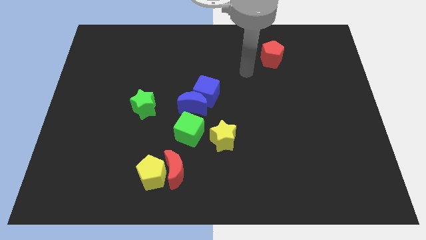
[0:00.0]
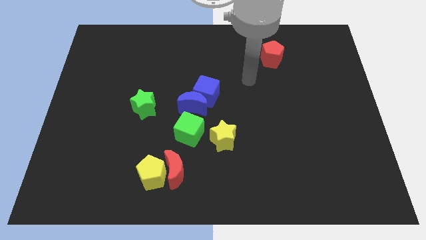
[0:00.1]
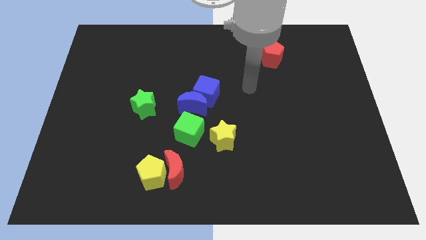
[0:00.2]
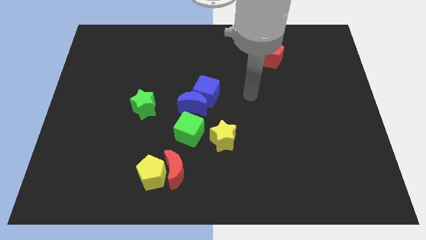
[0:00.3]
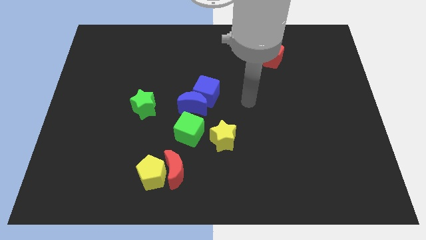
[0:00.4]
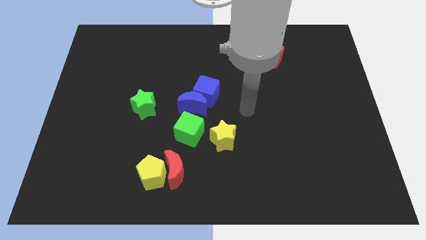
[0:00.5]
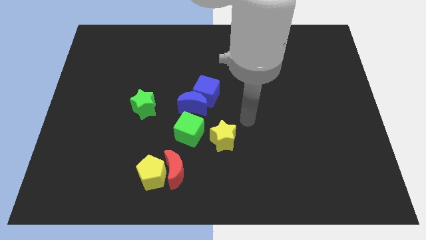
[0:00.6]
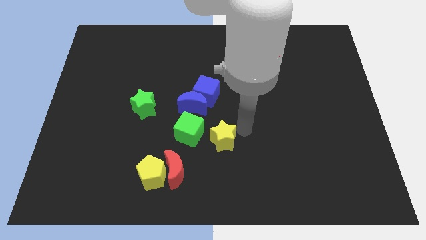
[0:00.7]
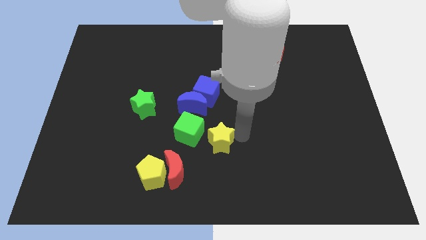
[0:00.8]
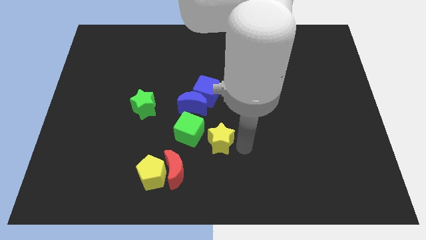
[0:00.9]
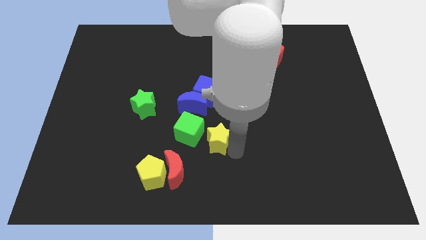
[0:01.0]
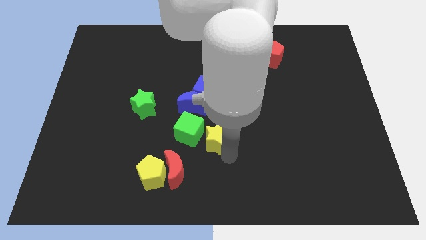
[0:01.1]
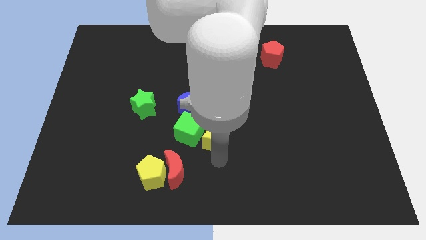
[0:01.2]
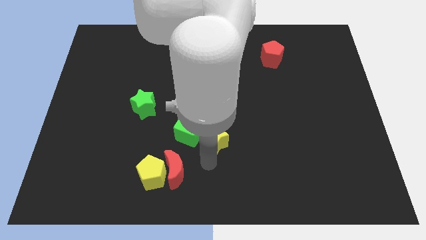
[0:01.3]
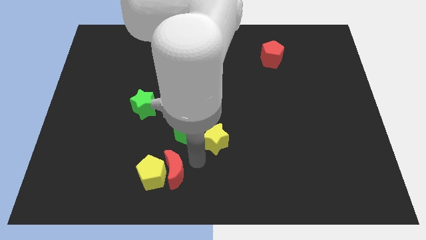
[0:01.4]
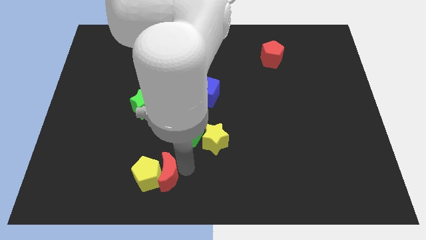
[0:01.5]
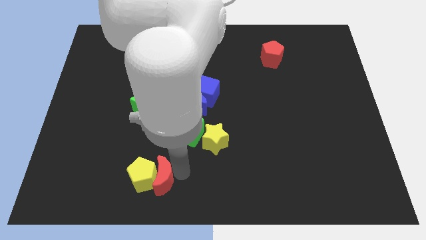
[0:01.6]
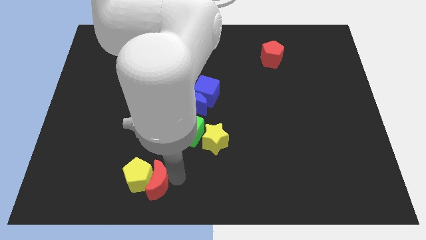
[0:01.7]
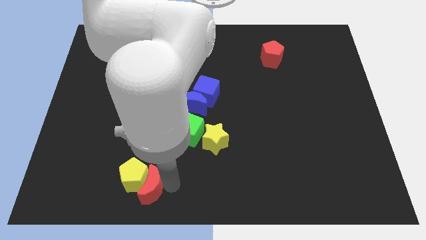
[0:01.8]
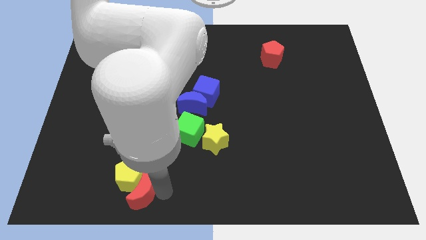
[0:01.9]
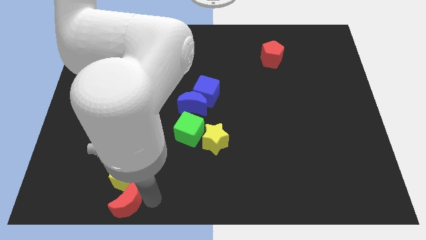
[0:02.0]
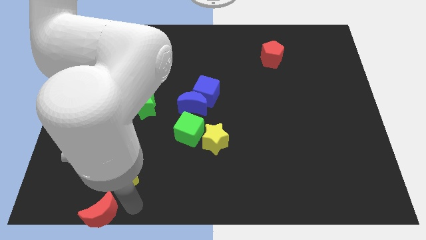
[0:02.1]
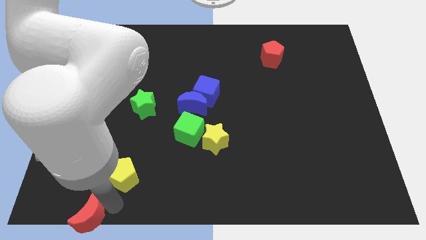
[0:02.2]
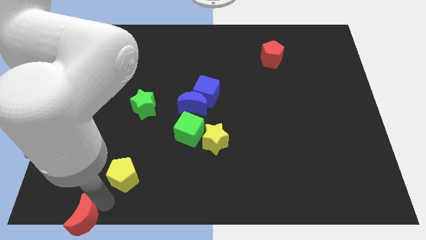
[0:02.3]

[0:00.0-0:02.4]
move the yellow pentagon away from the red moon

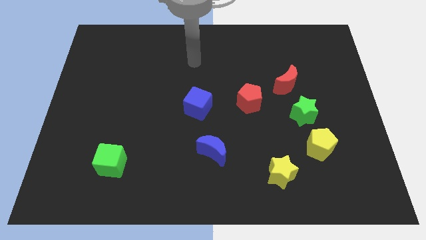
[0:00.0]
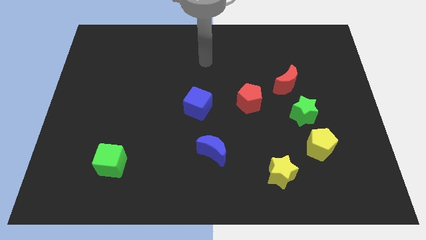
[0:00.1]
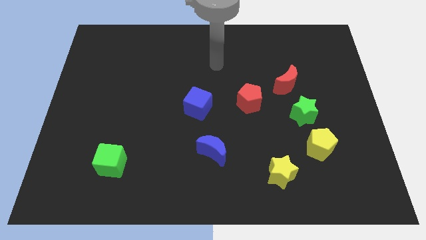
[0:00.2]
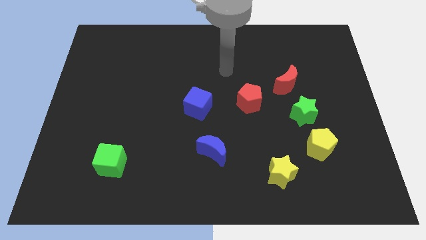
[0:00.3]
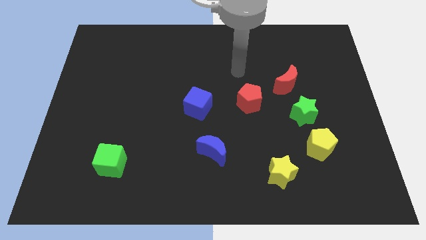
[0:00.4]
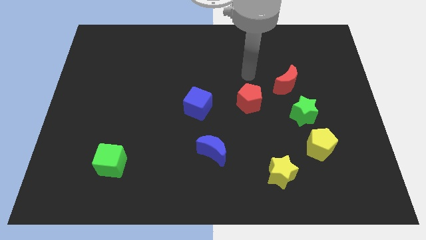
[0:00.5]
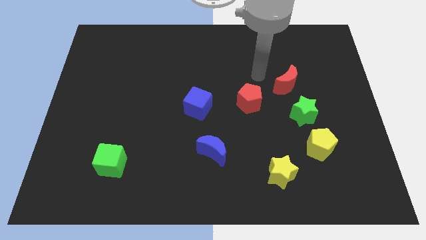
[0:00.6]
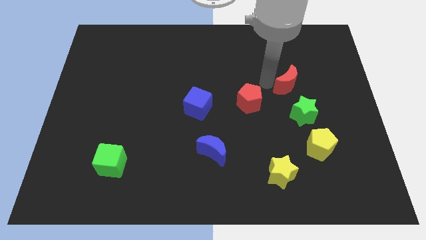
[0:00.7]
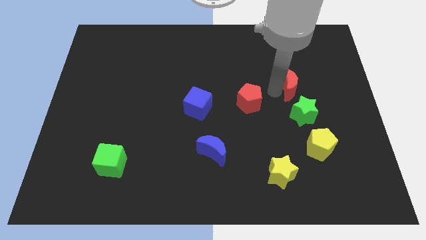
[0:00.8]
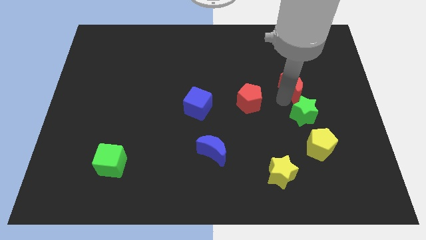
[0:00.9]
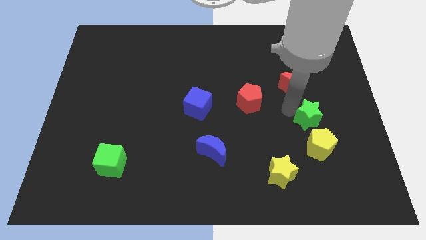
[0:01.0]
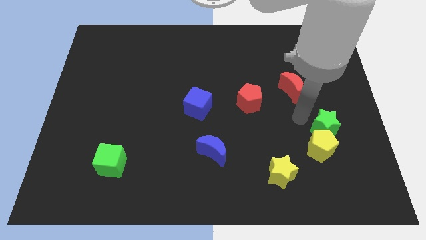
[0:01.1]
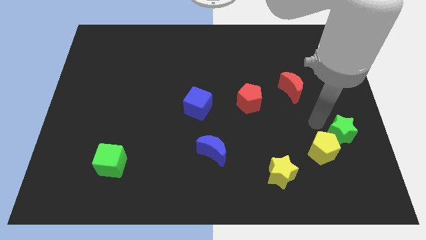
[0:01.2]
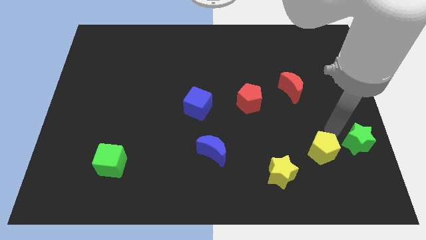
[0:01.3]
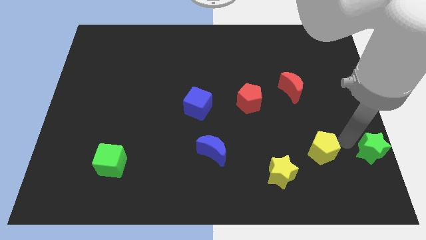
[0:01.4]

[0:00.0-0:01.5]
move the yellow pentagon away from the green star

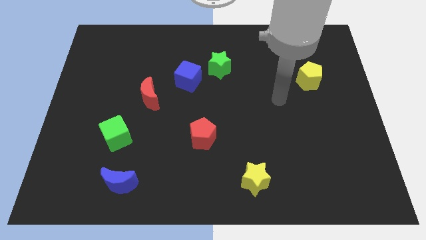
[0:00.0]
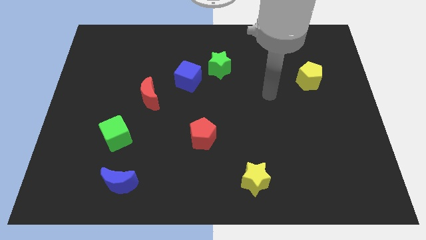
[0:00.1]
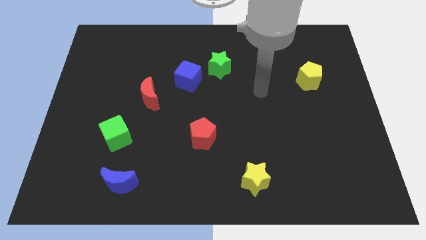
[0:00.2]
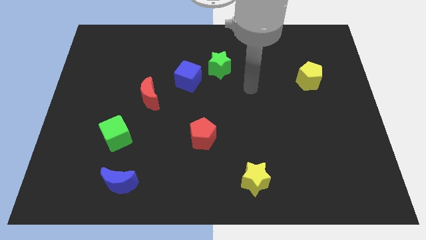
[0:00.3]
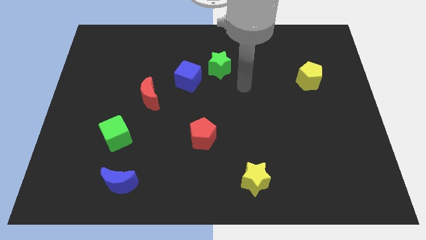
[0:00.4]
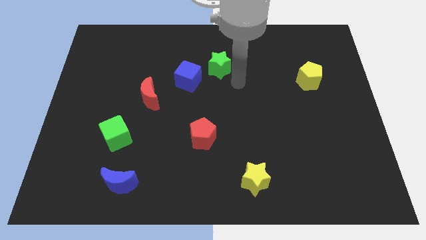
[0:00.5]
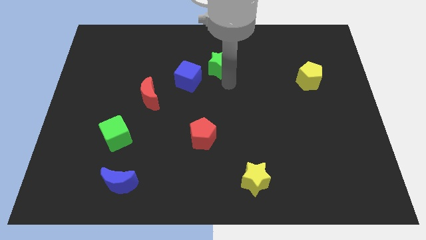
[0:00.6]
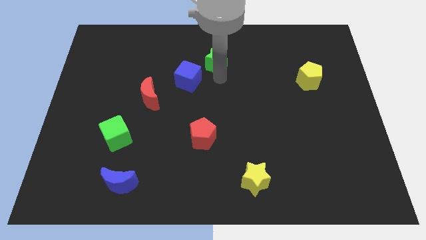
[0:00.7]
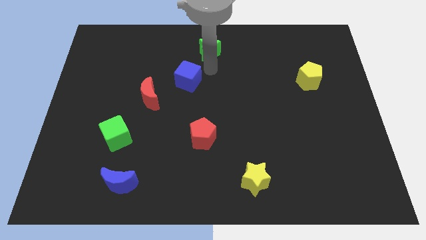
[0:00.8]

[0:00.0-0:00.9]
pull the blue cube apart from the green star

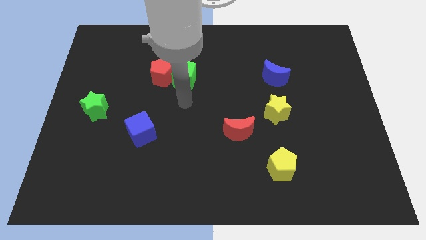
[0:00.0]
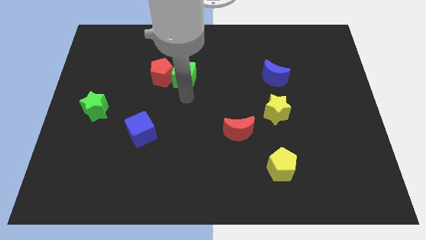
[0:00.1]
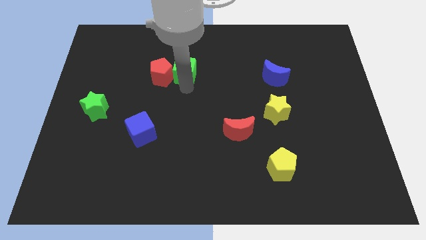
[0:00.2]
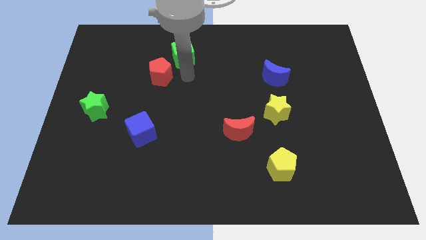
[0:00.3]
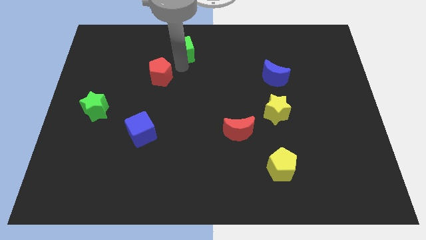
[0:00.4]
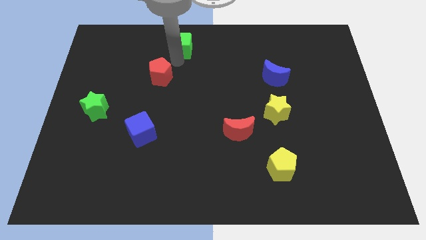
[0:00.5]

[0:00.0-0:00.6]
separate the red pentagon from the green cube

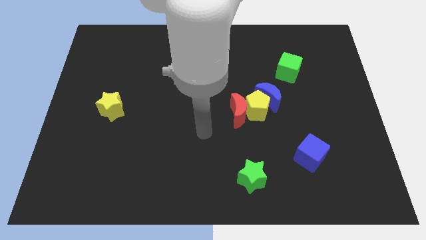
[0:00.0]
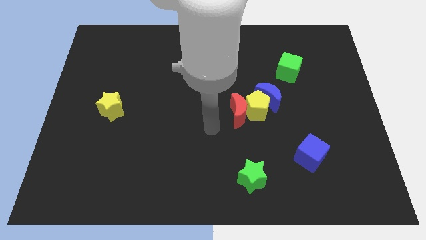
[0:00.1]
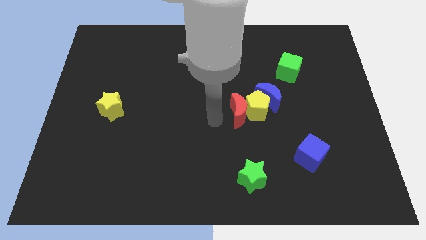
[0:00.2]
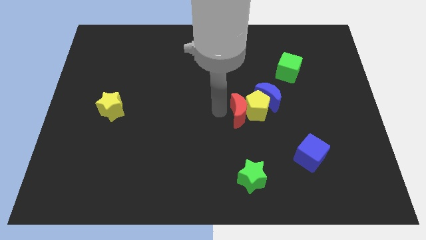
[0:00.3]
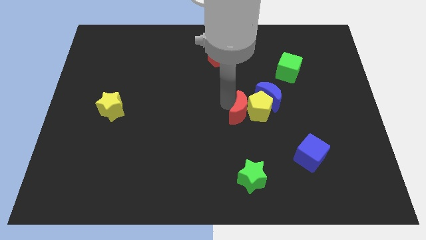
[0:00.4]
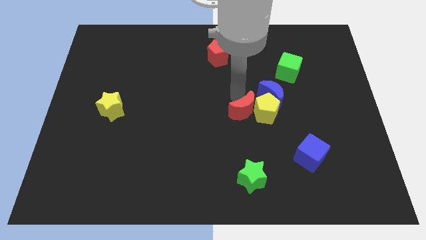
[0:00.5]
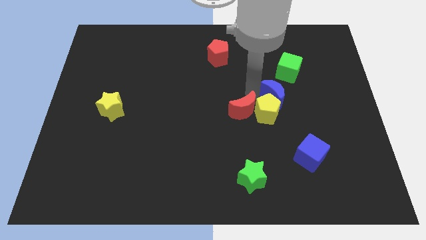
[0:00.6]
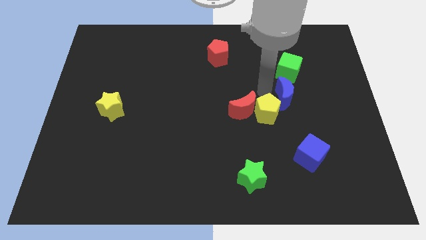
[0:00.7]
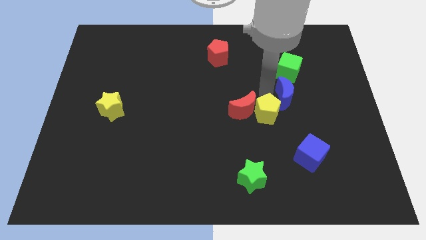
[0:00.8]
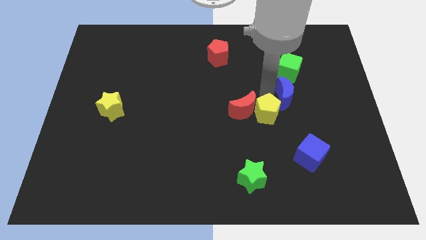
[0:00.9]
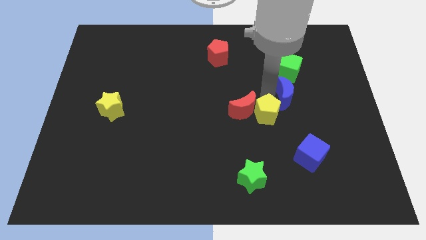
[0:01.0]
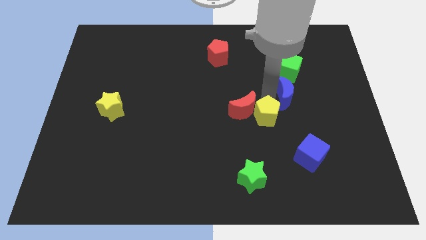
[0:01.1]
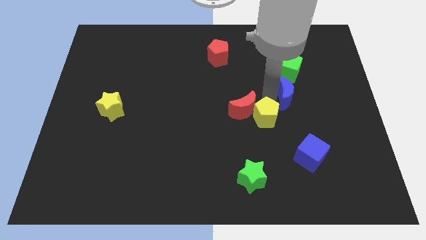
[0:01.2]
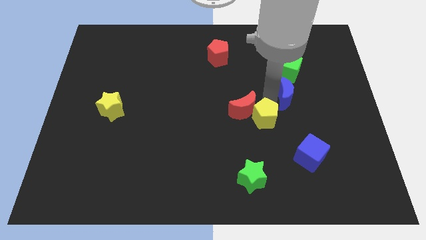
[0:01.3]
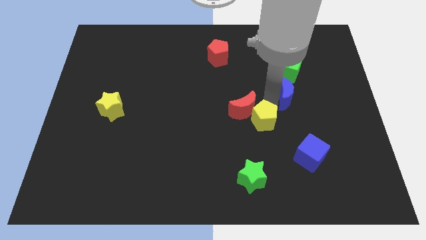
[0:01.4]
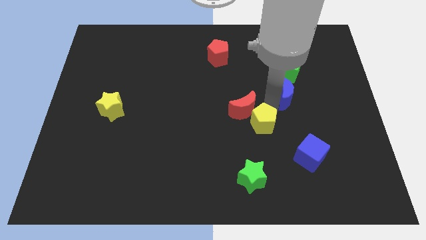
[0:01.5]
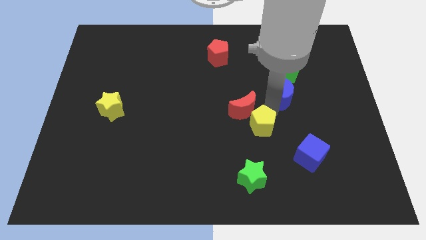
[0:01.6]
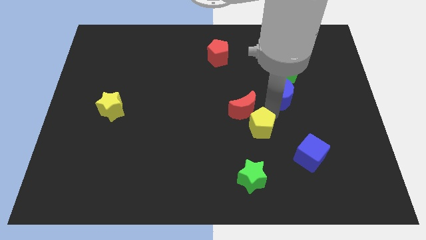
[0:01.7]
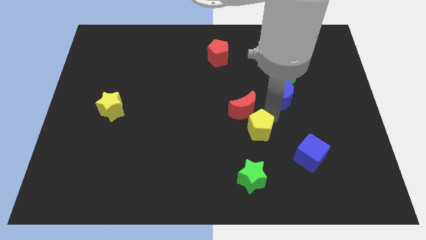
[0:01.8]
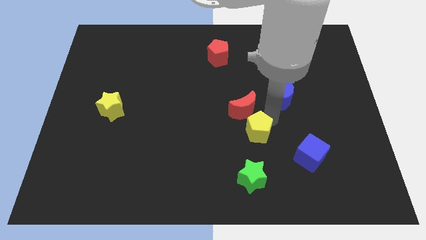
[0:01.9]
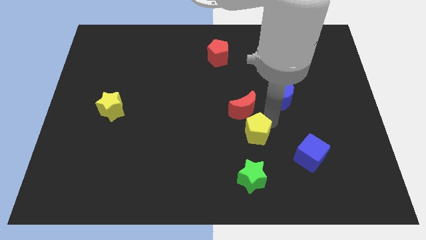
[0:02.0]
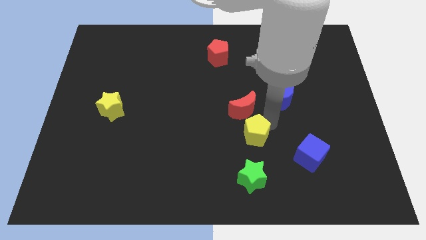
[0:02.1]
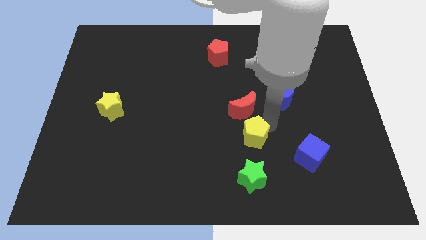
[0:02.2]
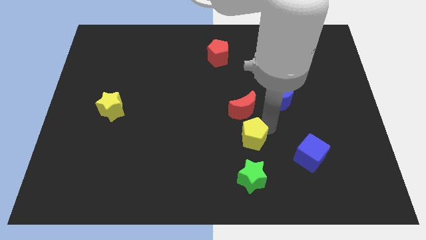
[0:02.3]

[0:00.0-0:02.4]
move the yellow pentagon away from the red moon and blue moon

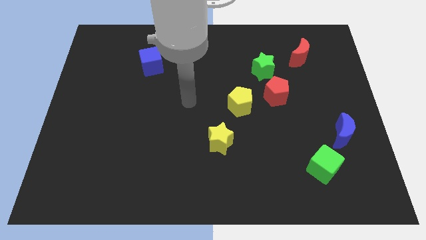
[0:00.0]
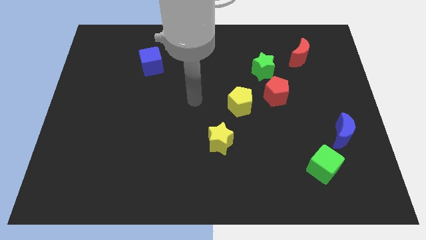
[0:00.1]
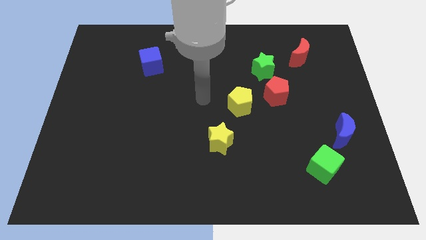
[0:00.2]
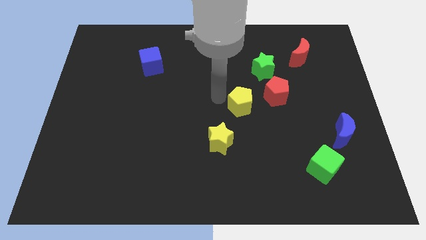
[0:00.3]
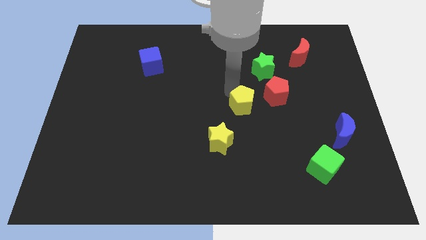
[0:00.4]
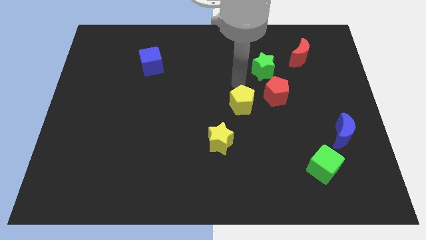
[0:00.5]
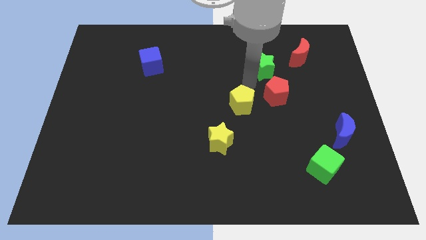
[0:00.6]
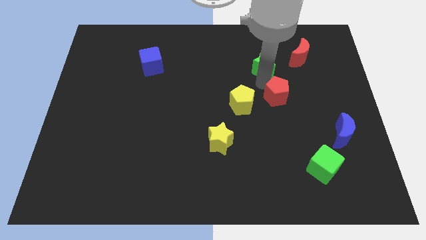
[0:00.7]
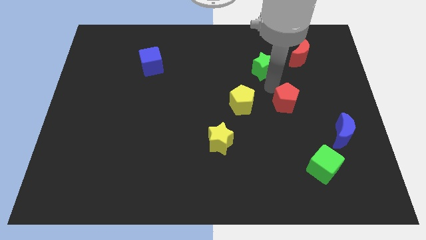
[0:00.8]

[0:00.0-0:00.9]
move the green star away from the red pentagon

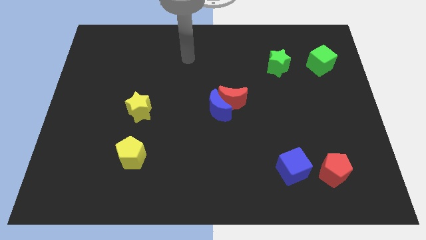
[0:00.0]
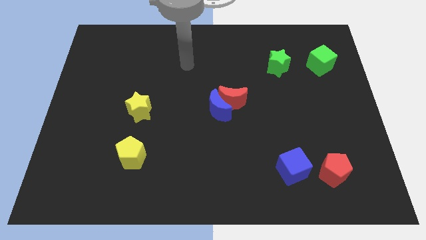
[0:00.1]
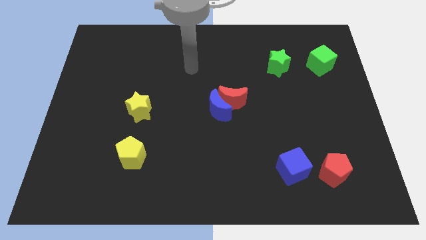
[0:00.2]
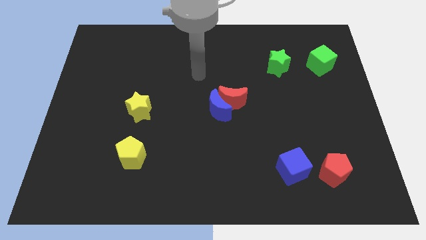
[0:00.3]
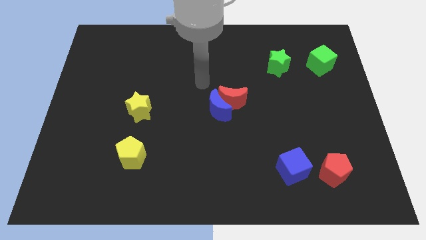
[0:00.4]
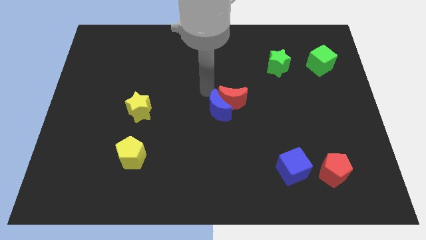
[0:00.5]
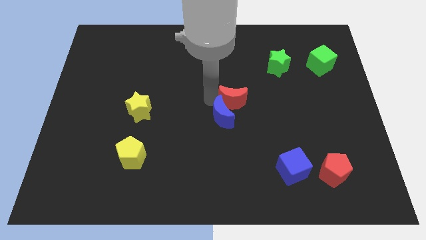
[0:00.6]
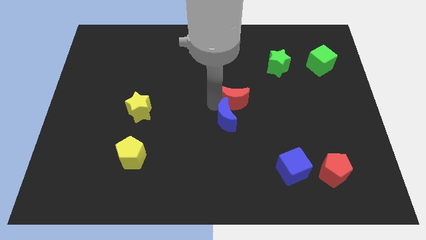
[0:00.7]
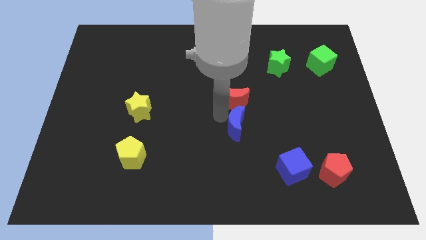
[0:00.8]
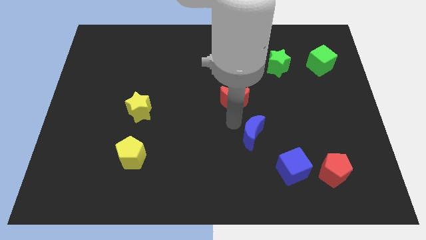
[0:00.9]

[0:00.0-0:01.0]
pull the red moon apart from the blue moon
